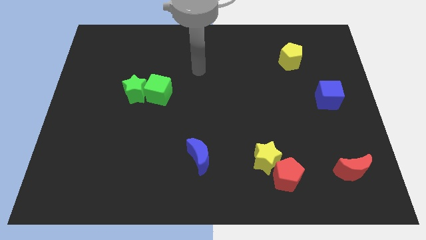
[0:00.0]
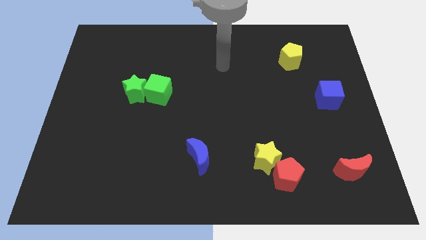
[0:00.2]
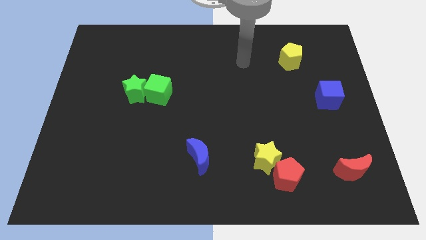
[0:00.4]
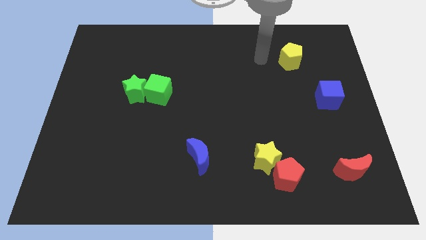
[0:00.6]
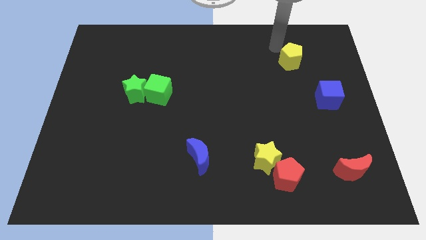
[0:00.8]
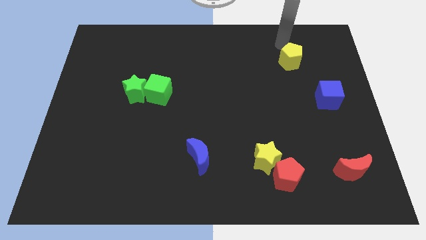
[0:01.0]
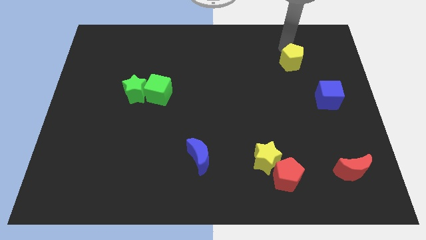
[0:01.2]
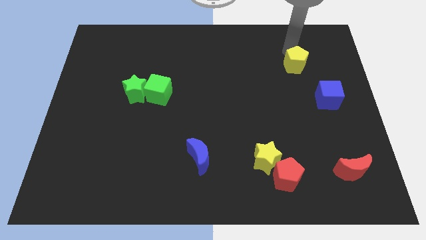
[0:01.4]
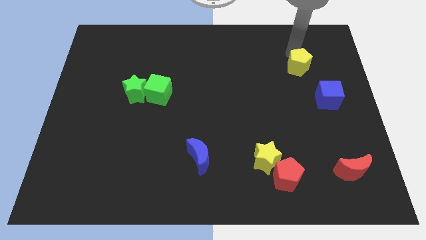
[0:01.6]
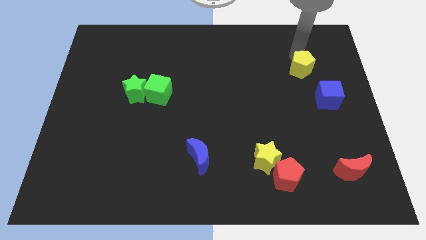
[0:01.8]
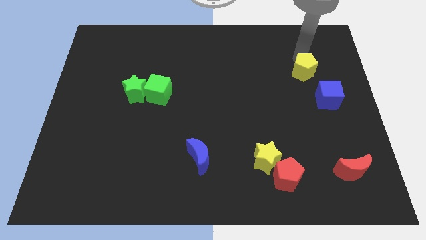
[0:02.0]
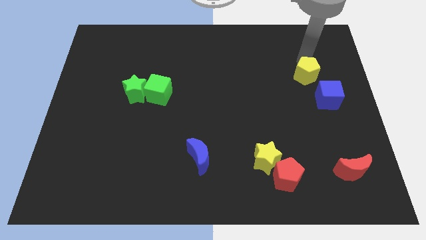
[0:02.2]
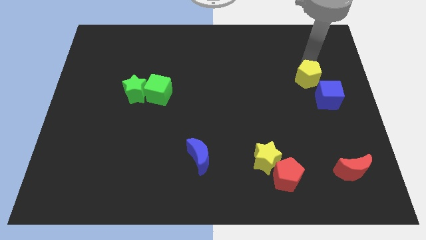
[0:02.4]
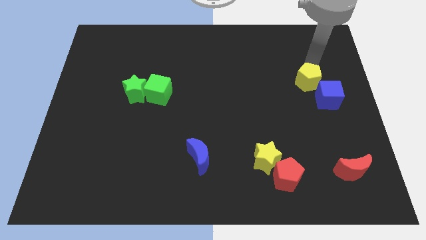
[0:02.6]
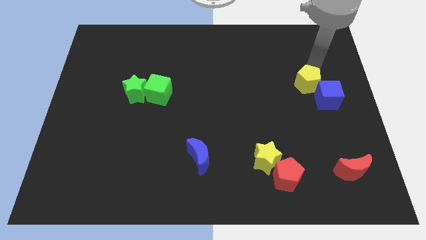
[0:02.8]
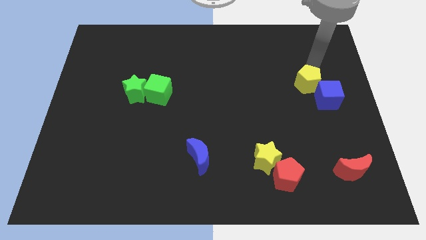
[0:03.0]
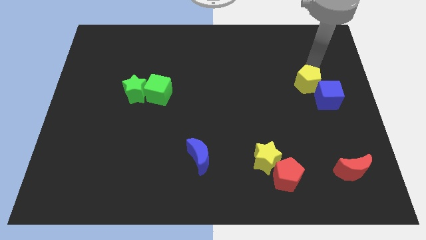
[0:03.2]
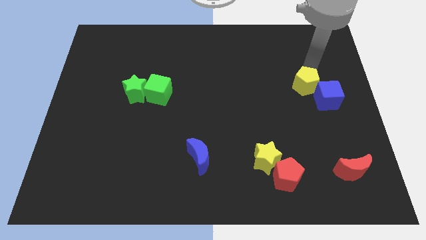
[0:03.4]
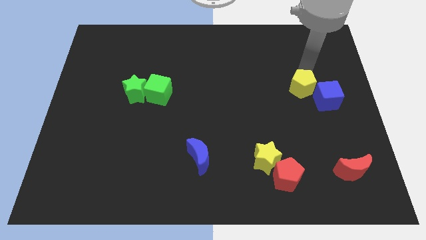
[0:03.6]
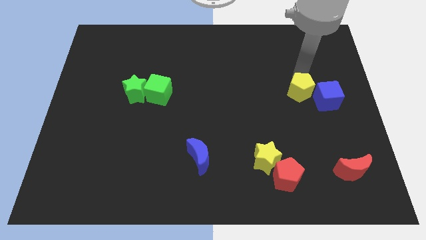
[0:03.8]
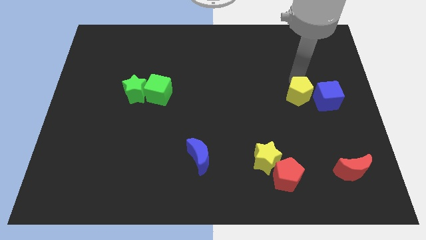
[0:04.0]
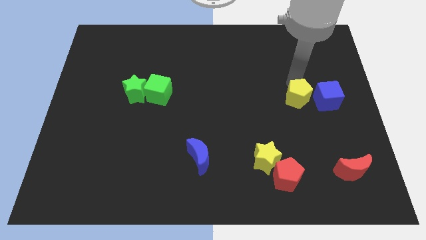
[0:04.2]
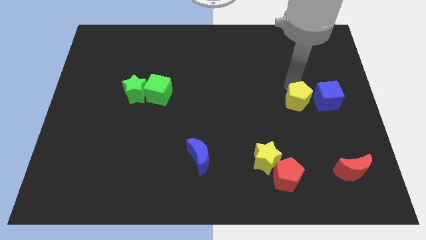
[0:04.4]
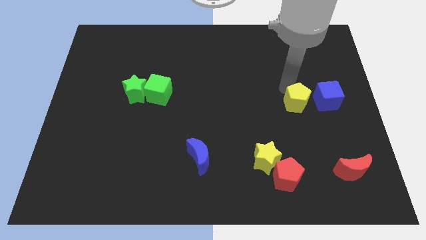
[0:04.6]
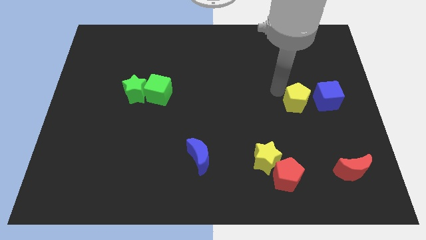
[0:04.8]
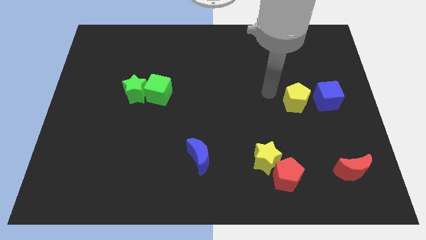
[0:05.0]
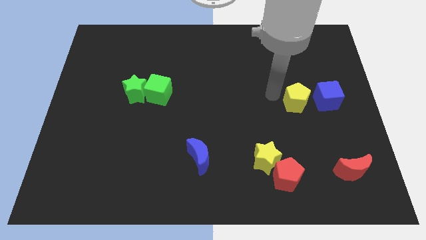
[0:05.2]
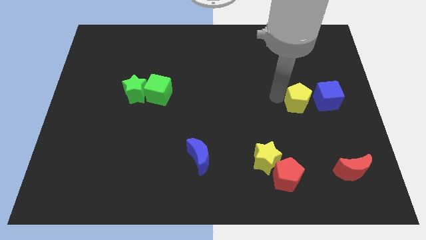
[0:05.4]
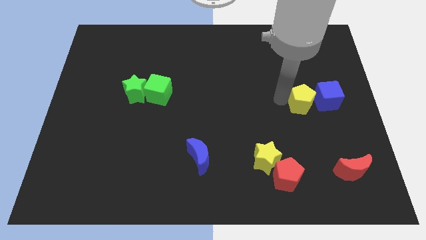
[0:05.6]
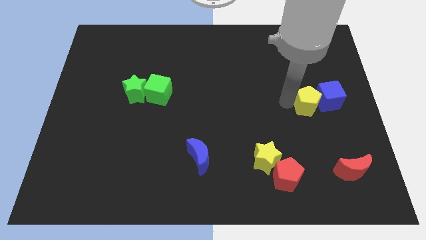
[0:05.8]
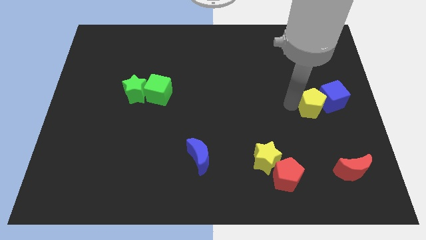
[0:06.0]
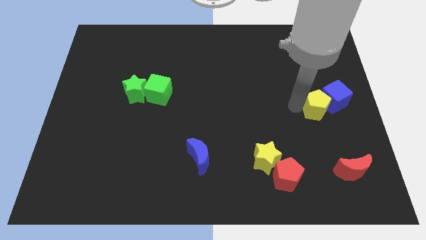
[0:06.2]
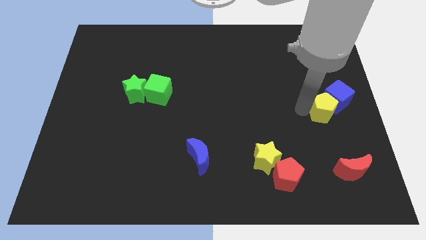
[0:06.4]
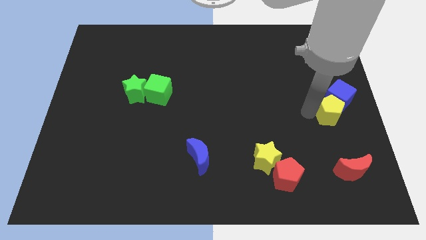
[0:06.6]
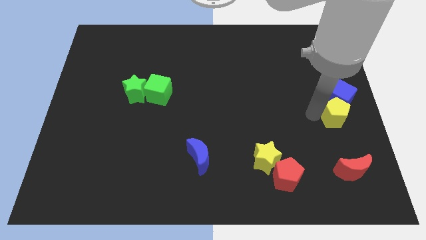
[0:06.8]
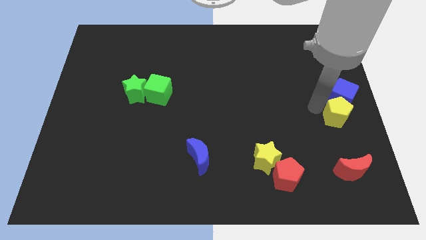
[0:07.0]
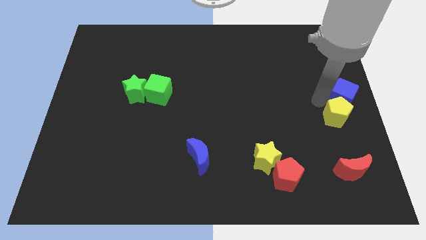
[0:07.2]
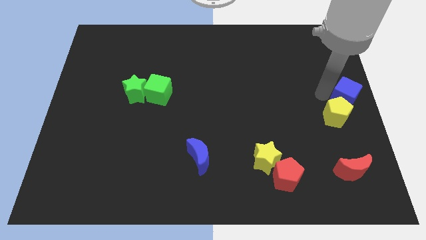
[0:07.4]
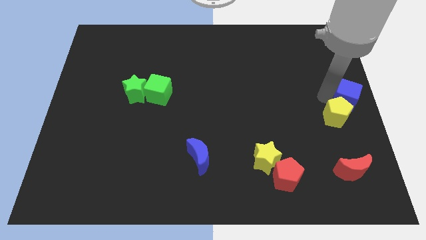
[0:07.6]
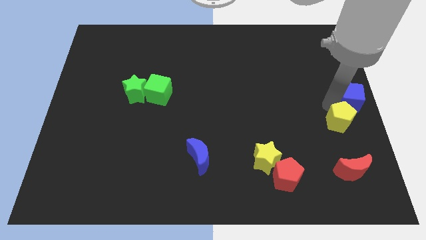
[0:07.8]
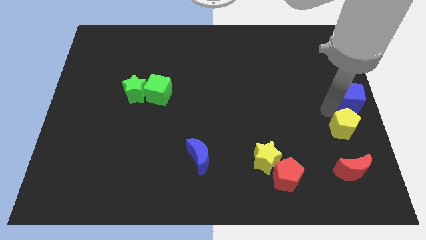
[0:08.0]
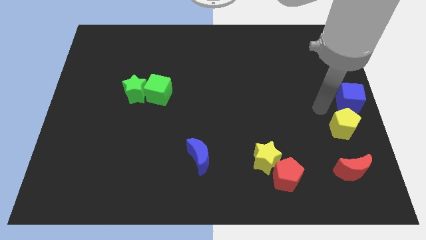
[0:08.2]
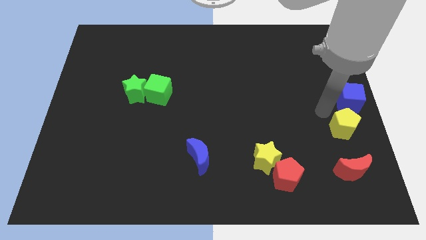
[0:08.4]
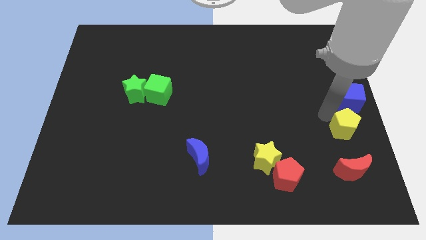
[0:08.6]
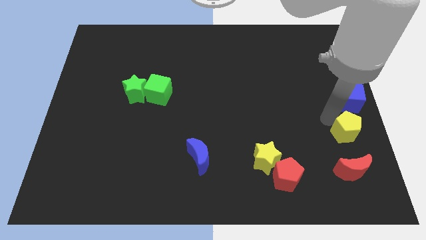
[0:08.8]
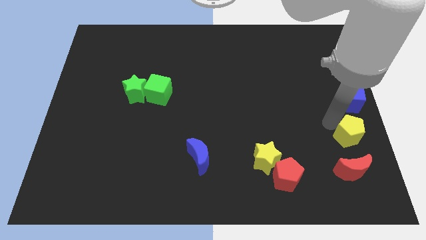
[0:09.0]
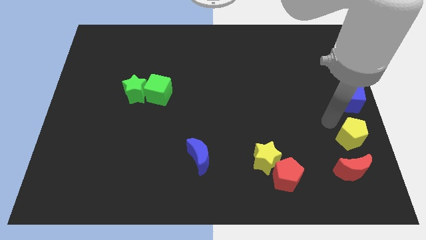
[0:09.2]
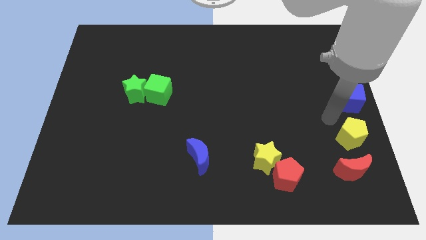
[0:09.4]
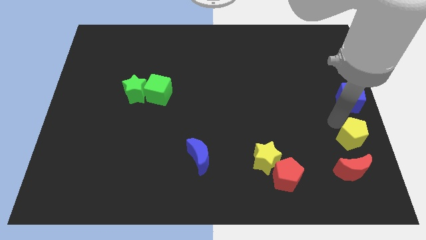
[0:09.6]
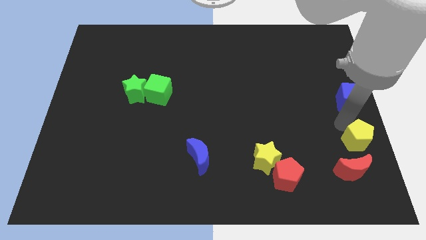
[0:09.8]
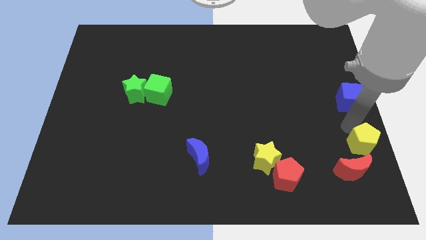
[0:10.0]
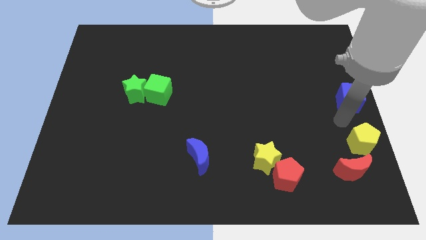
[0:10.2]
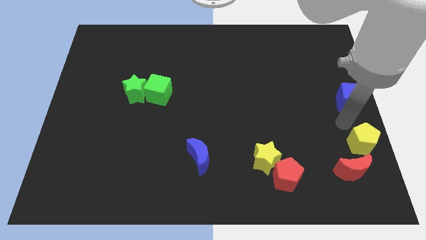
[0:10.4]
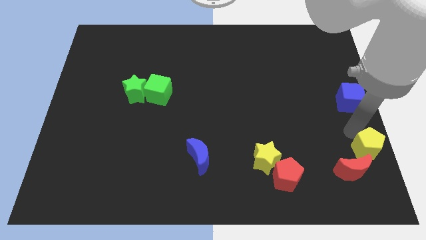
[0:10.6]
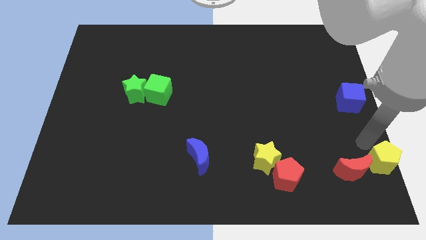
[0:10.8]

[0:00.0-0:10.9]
push the yellow pentagon to the bottom right corner

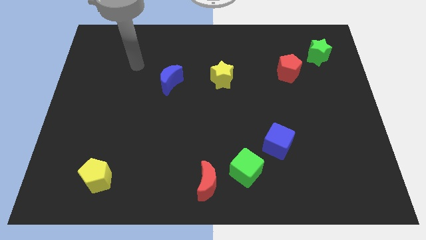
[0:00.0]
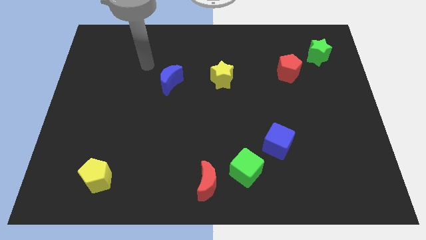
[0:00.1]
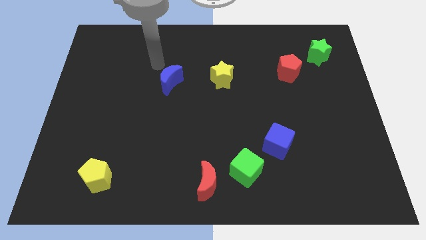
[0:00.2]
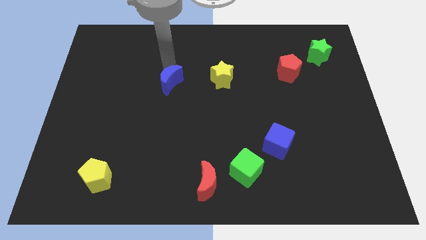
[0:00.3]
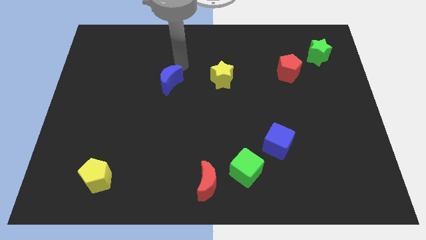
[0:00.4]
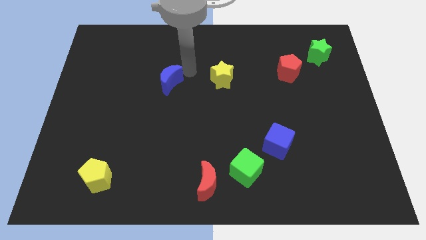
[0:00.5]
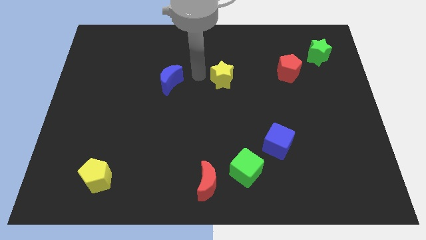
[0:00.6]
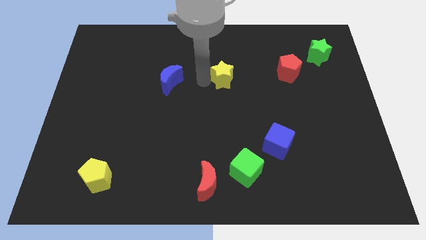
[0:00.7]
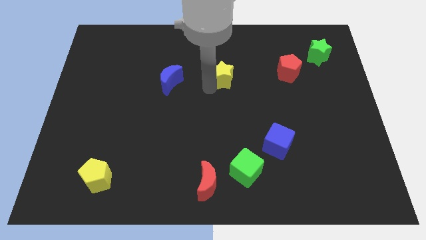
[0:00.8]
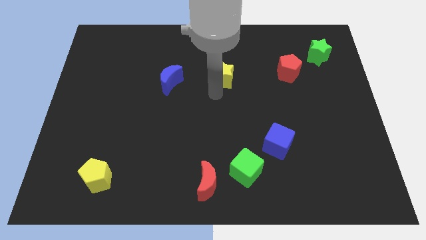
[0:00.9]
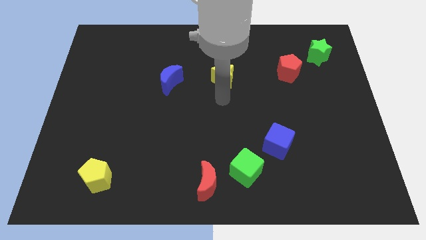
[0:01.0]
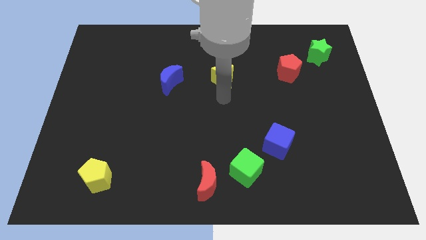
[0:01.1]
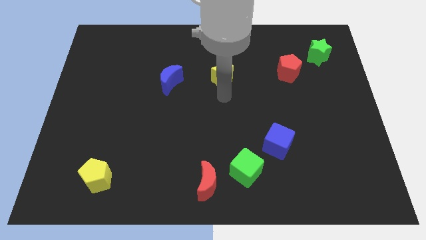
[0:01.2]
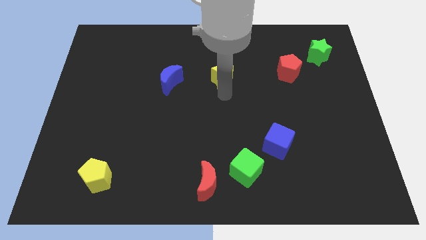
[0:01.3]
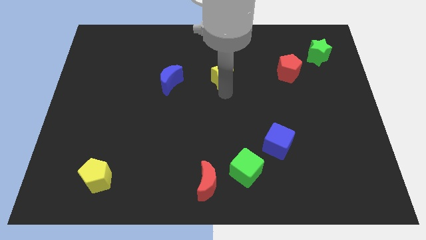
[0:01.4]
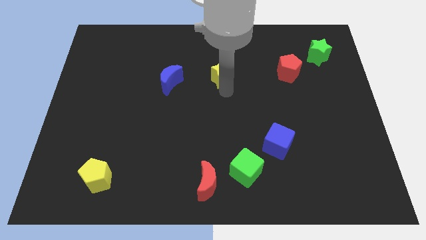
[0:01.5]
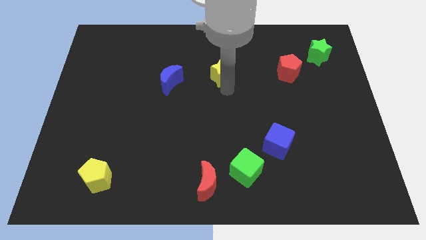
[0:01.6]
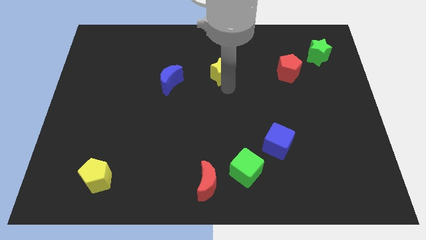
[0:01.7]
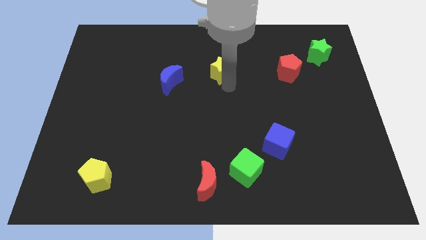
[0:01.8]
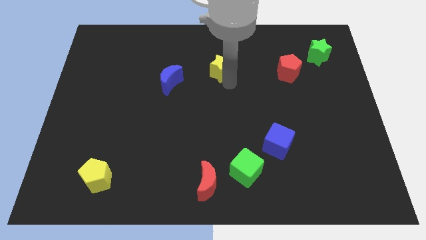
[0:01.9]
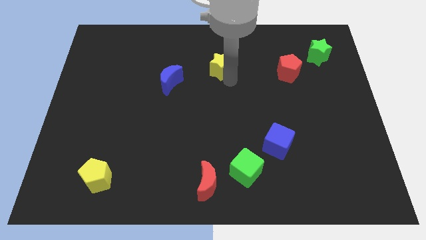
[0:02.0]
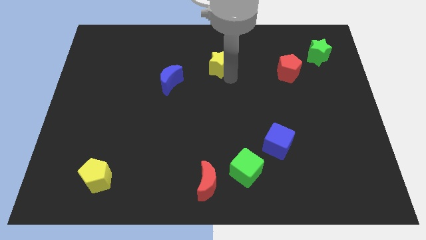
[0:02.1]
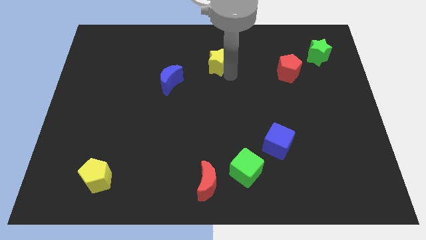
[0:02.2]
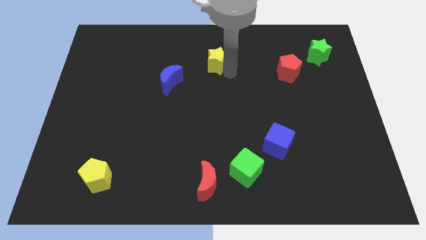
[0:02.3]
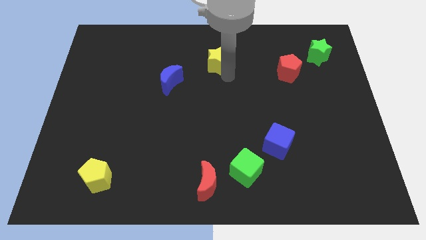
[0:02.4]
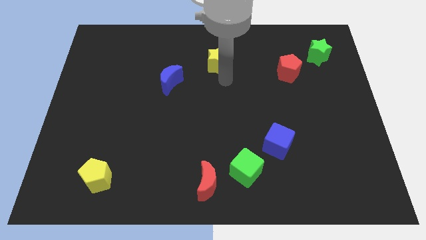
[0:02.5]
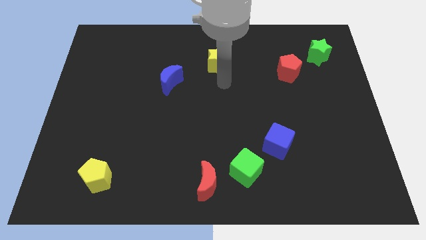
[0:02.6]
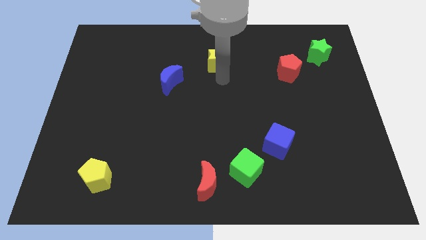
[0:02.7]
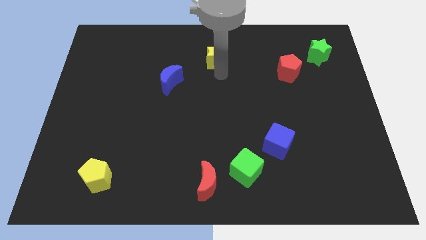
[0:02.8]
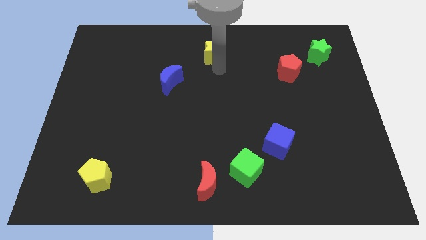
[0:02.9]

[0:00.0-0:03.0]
move the yellow star to the top side
